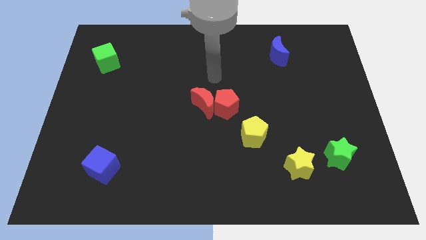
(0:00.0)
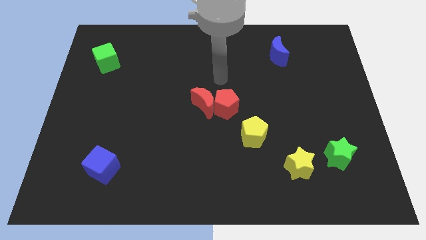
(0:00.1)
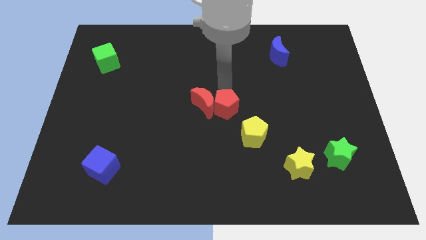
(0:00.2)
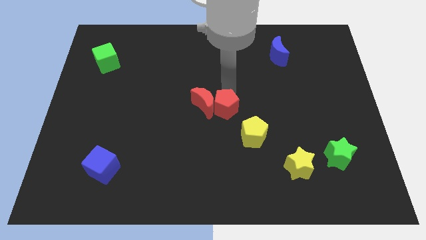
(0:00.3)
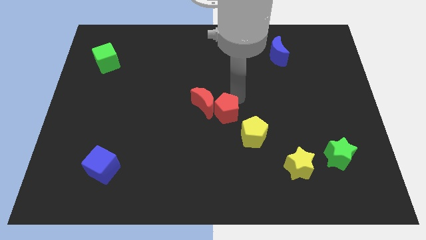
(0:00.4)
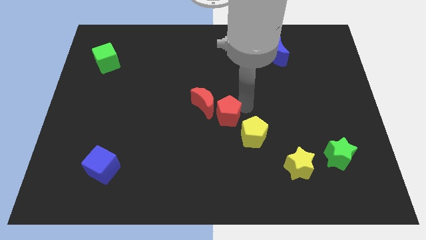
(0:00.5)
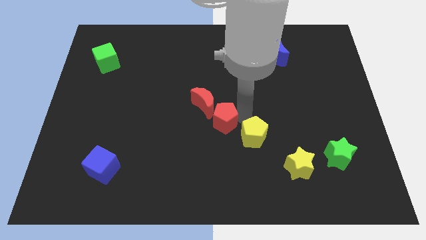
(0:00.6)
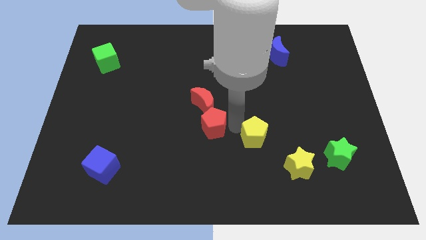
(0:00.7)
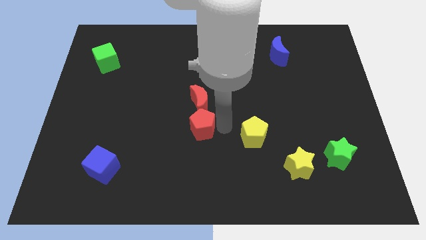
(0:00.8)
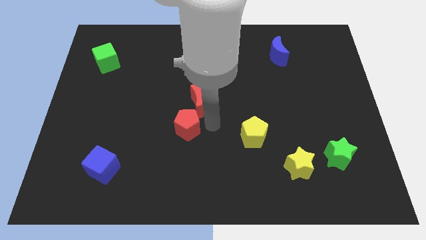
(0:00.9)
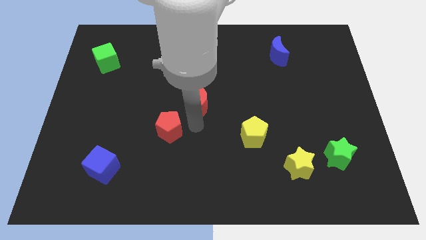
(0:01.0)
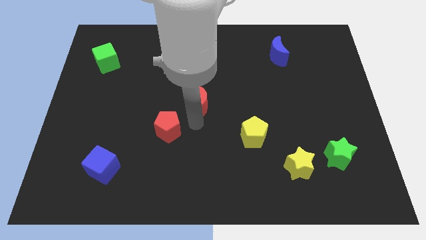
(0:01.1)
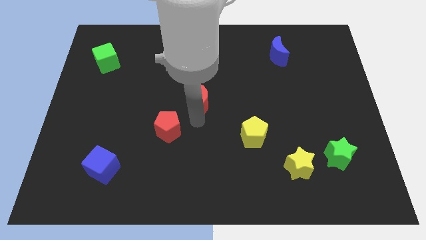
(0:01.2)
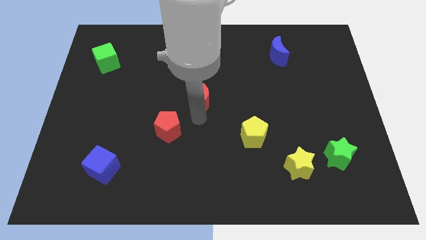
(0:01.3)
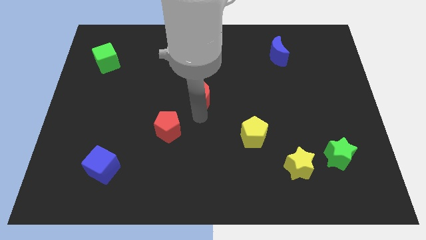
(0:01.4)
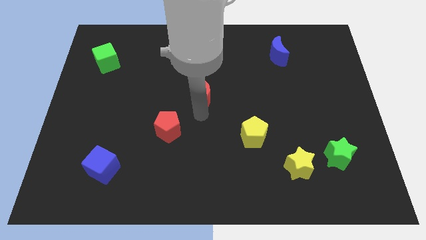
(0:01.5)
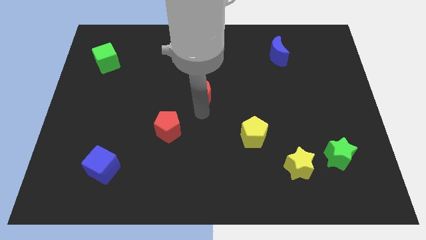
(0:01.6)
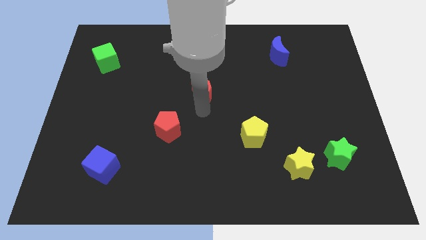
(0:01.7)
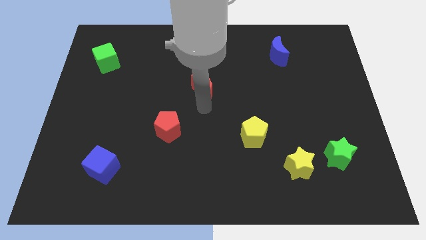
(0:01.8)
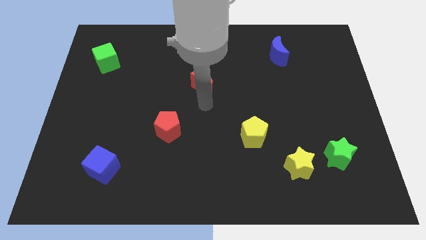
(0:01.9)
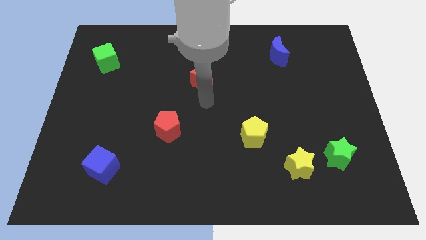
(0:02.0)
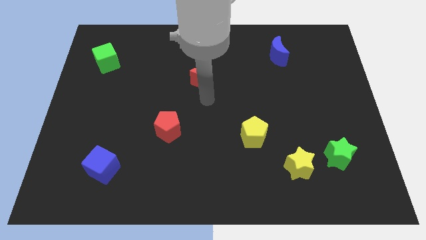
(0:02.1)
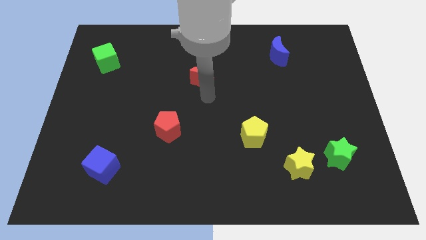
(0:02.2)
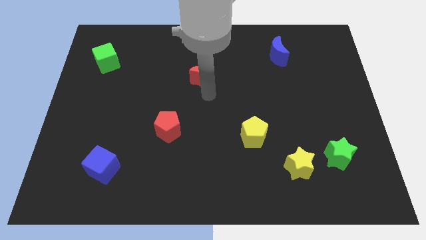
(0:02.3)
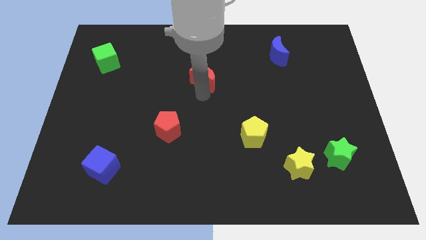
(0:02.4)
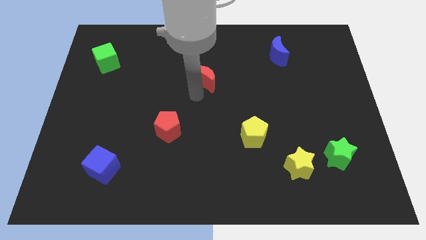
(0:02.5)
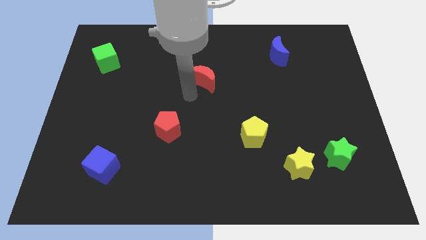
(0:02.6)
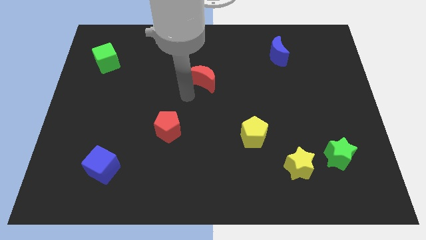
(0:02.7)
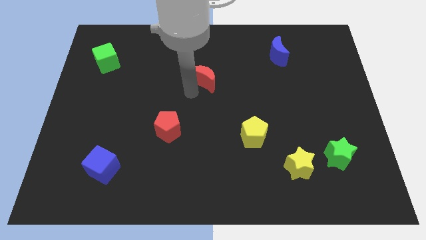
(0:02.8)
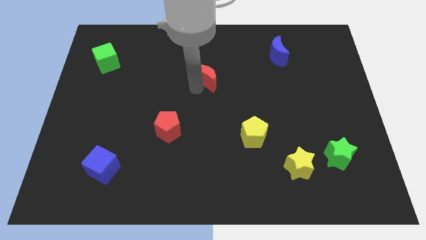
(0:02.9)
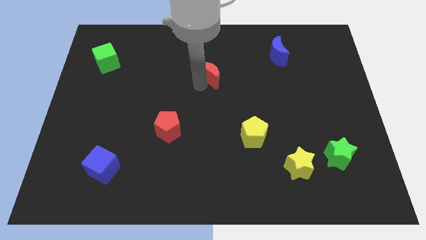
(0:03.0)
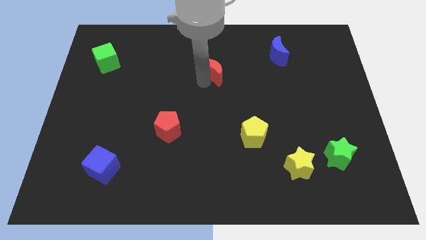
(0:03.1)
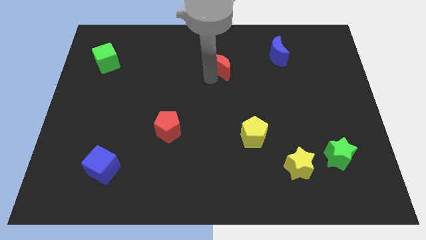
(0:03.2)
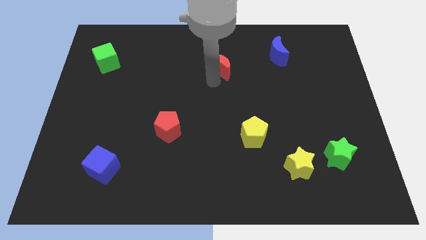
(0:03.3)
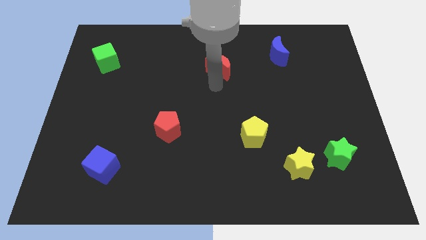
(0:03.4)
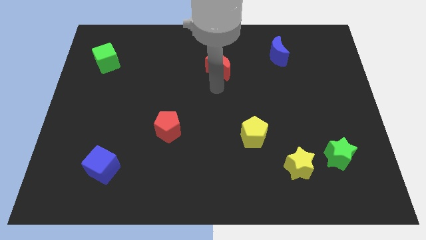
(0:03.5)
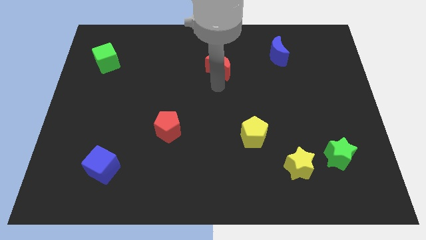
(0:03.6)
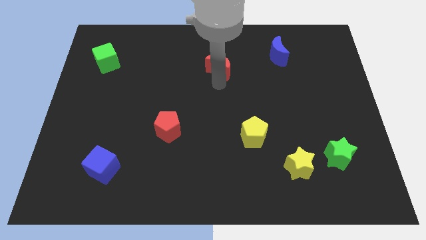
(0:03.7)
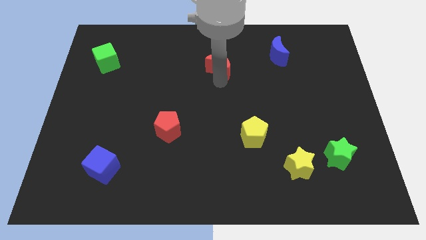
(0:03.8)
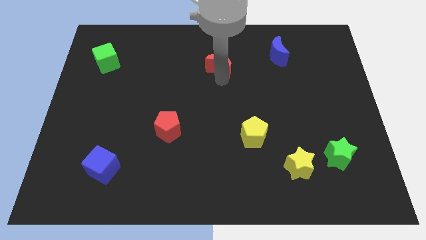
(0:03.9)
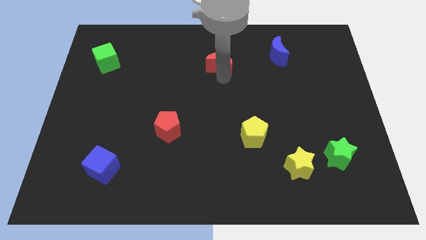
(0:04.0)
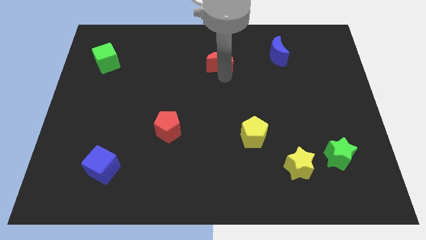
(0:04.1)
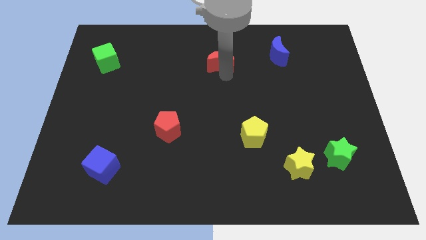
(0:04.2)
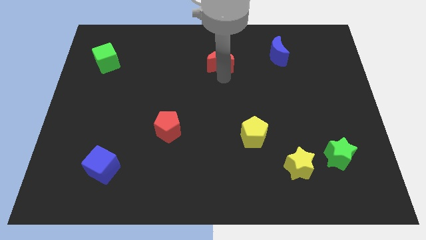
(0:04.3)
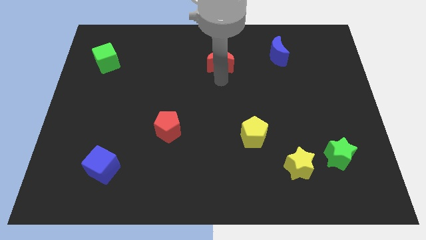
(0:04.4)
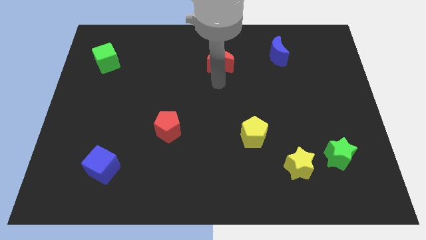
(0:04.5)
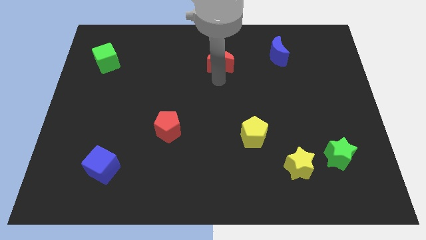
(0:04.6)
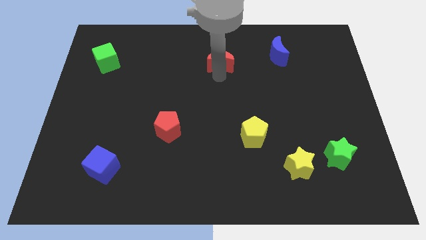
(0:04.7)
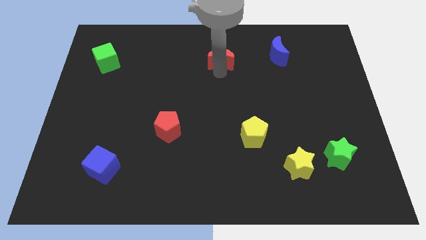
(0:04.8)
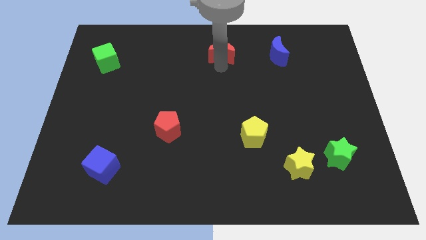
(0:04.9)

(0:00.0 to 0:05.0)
move the red moon to the top

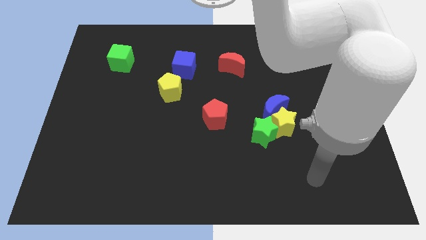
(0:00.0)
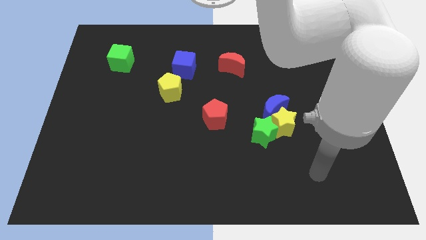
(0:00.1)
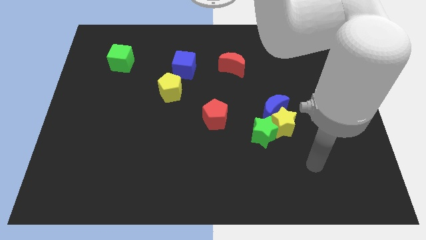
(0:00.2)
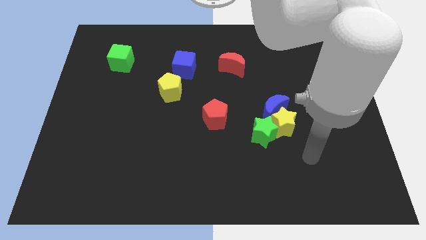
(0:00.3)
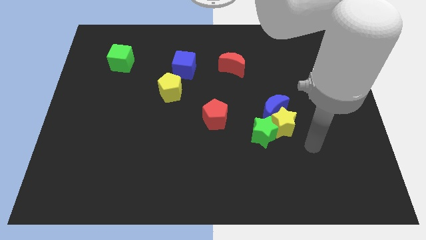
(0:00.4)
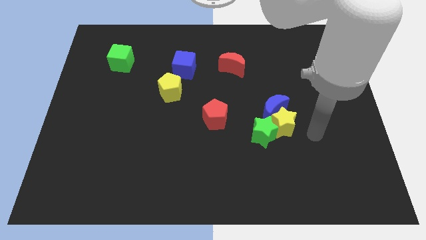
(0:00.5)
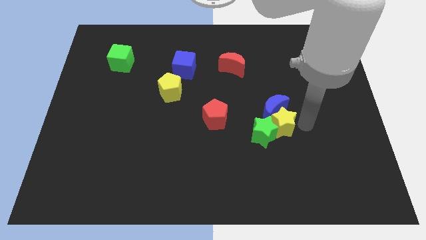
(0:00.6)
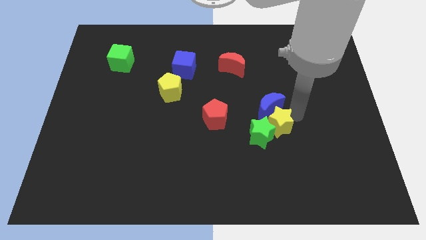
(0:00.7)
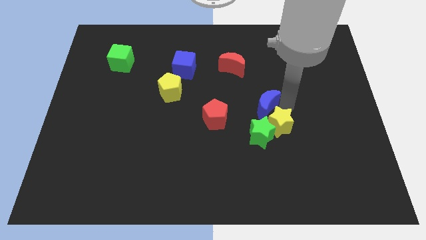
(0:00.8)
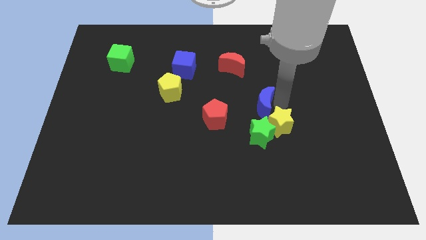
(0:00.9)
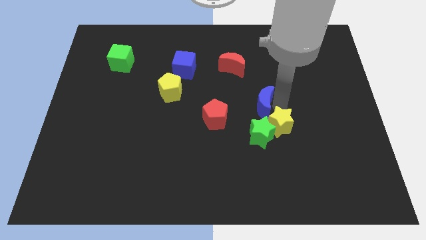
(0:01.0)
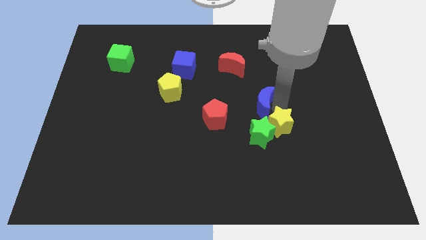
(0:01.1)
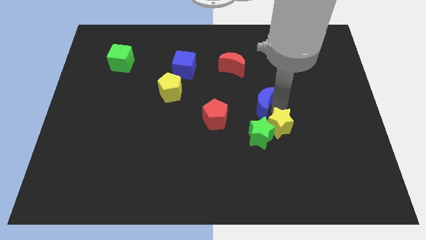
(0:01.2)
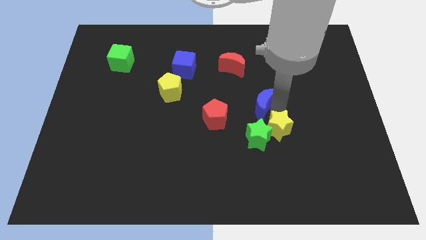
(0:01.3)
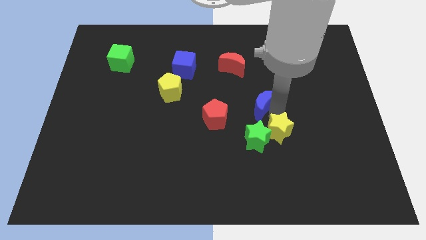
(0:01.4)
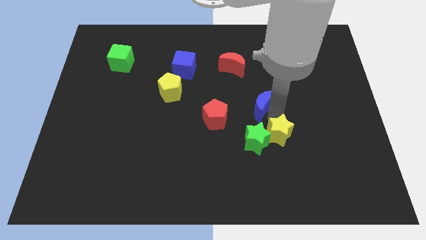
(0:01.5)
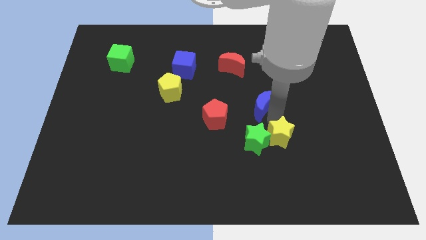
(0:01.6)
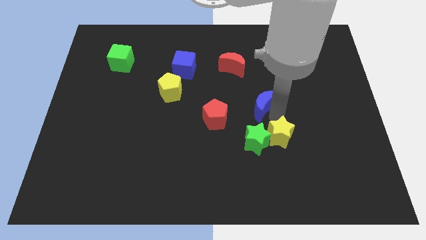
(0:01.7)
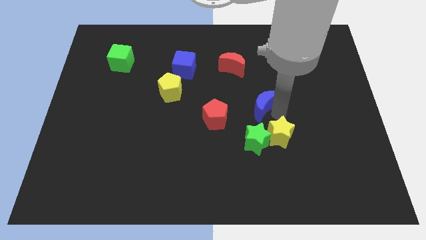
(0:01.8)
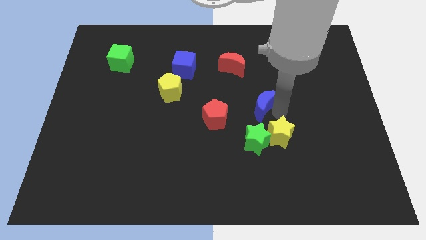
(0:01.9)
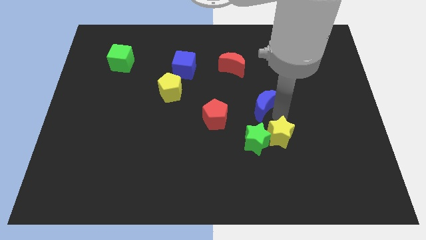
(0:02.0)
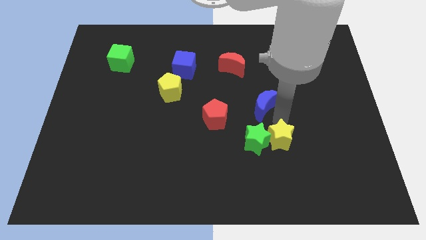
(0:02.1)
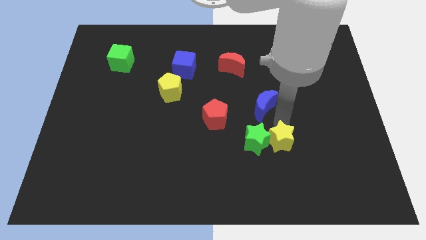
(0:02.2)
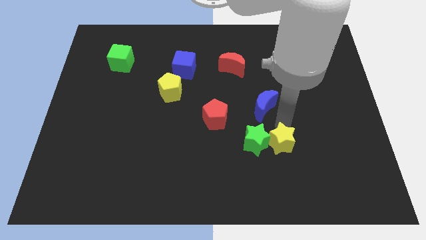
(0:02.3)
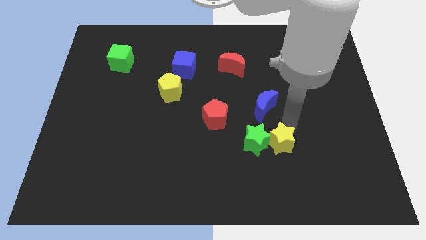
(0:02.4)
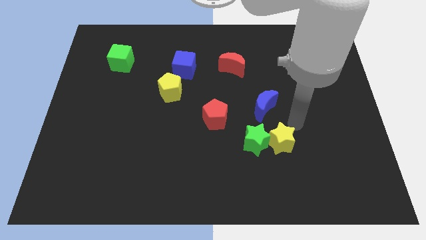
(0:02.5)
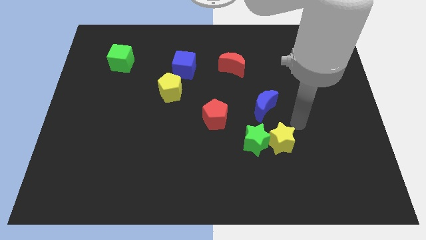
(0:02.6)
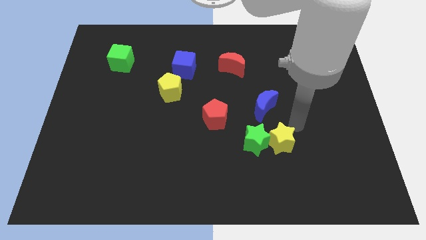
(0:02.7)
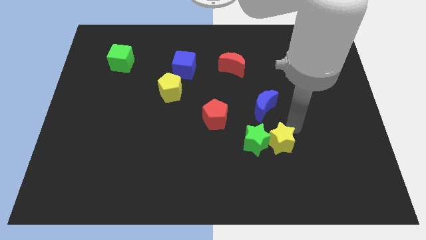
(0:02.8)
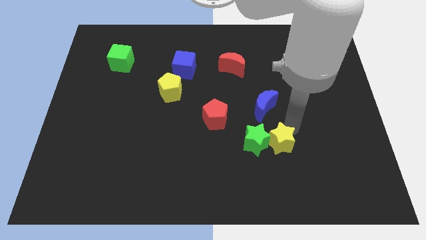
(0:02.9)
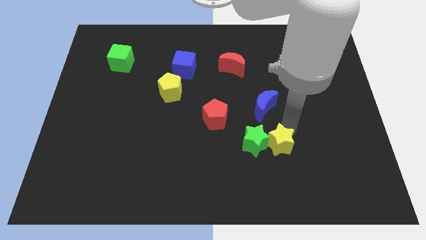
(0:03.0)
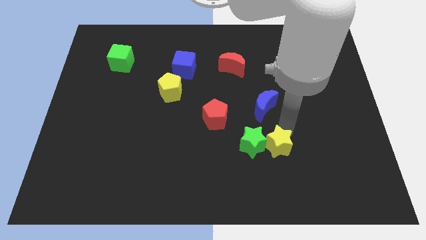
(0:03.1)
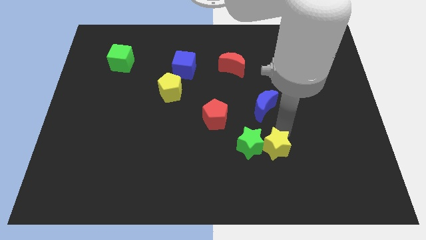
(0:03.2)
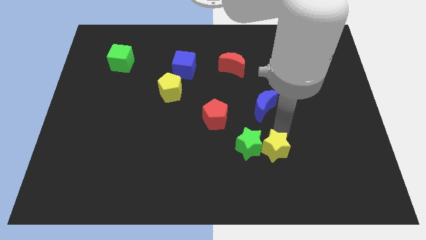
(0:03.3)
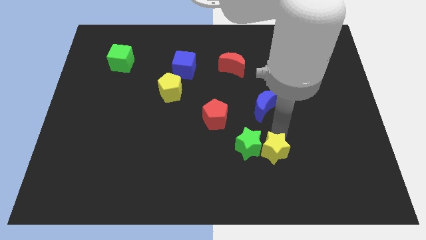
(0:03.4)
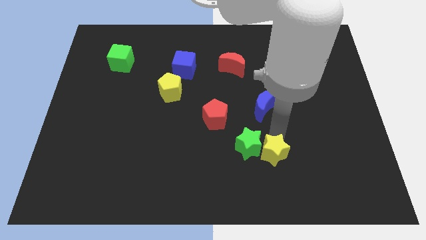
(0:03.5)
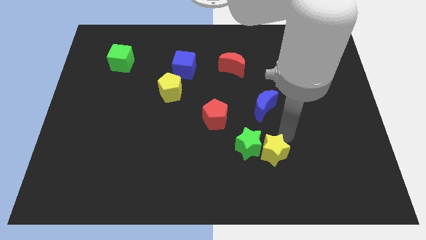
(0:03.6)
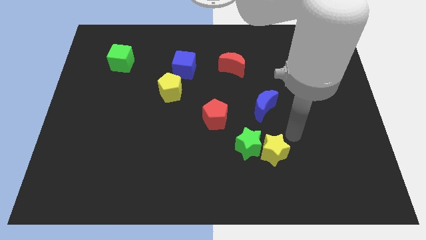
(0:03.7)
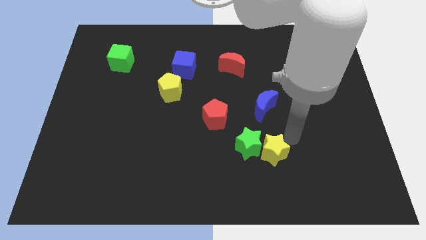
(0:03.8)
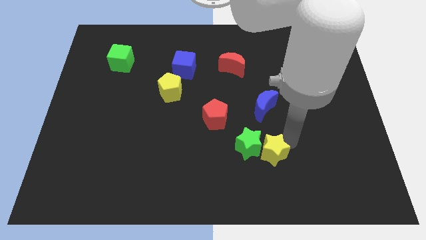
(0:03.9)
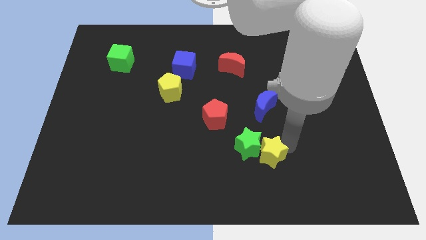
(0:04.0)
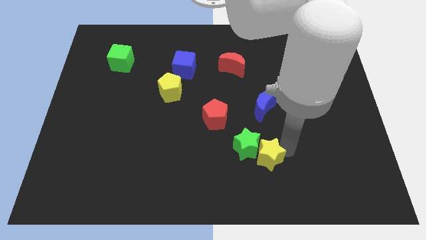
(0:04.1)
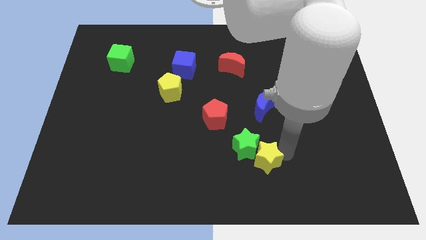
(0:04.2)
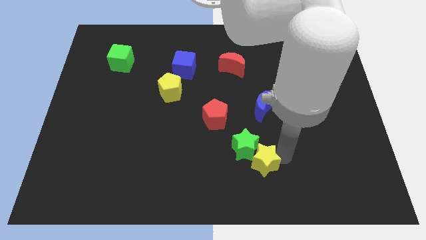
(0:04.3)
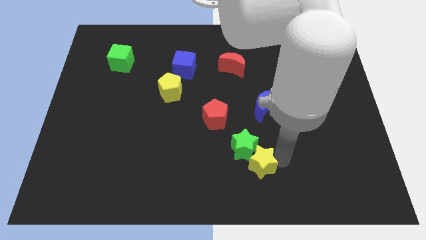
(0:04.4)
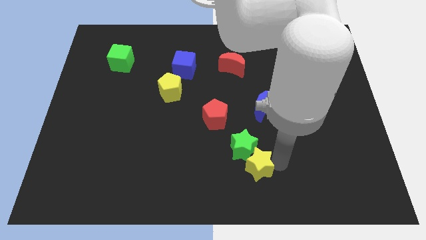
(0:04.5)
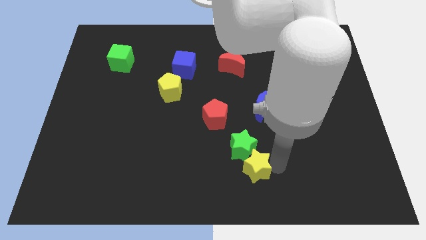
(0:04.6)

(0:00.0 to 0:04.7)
slide the yellow star to the bottom side
